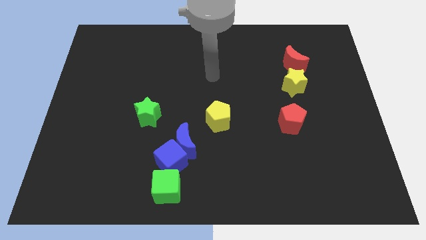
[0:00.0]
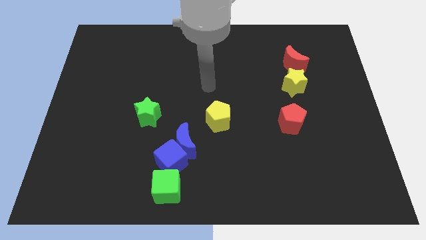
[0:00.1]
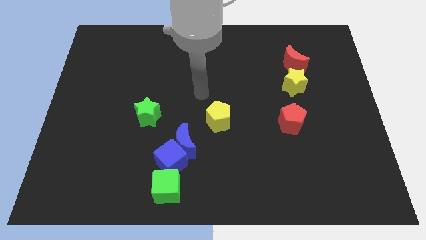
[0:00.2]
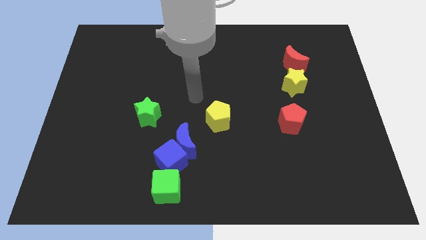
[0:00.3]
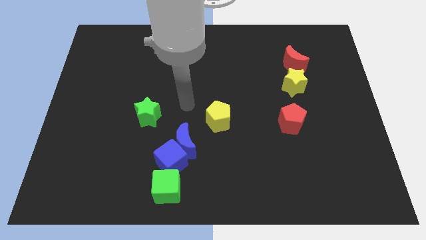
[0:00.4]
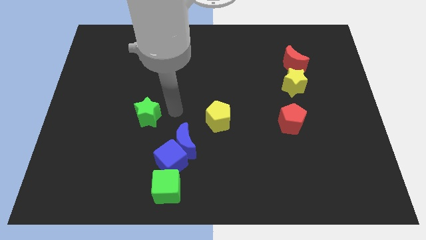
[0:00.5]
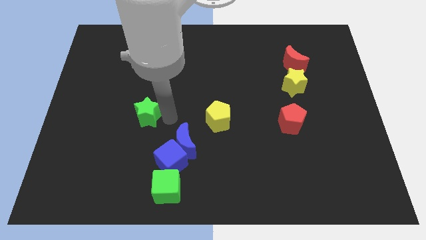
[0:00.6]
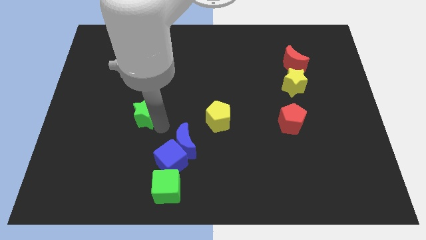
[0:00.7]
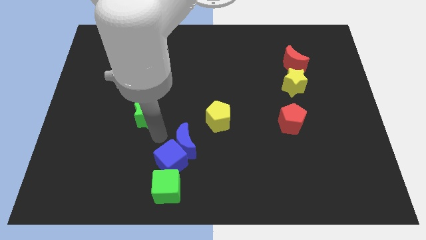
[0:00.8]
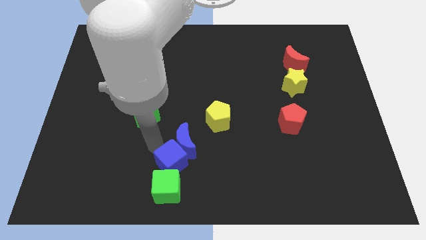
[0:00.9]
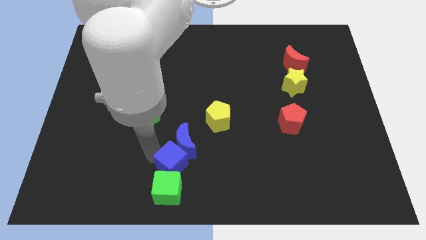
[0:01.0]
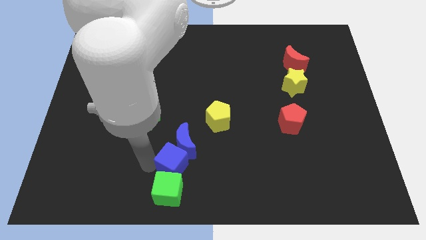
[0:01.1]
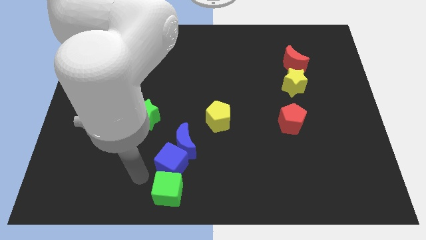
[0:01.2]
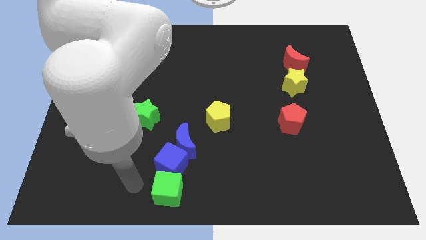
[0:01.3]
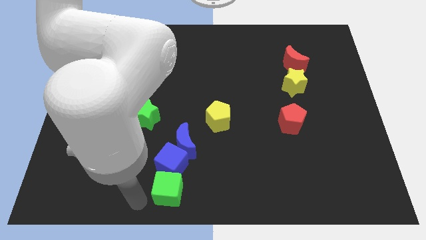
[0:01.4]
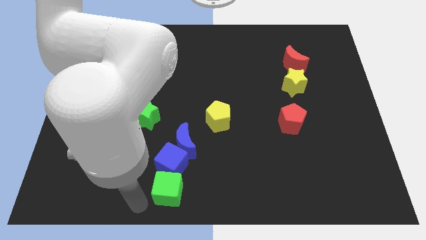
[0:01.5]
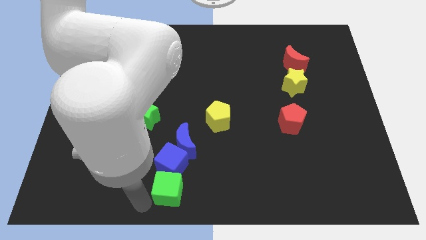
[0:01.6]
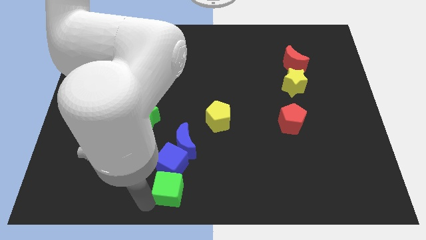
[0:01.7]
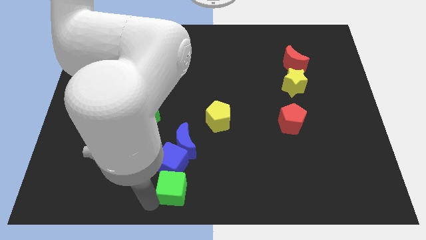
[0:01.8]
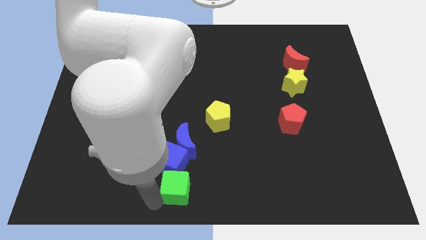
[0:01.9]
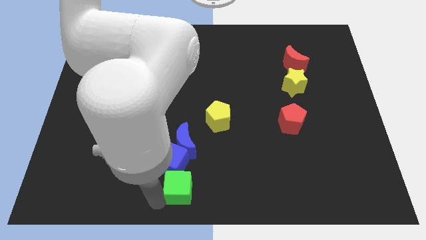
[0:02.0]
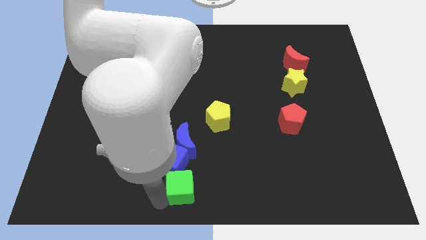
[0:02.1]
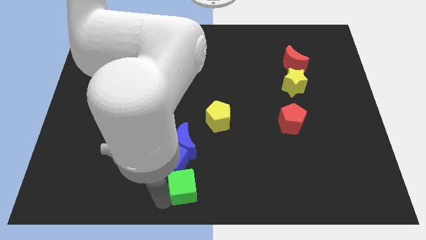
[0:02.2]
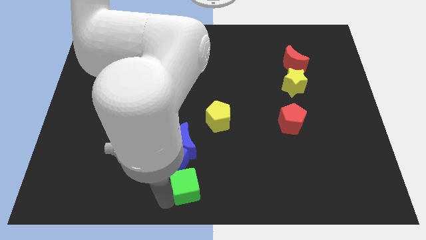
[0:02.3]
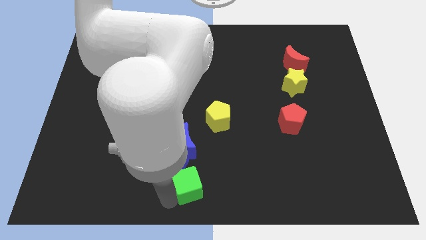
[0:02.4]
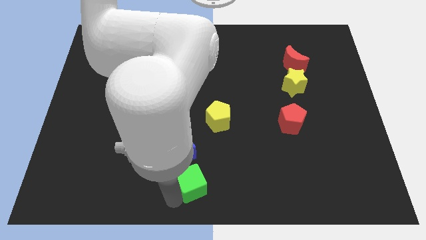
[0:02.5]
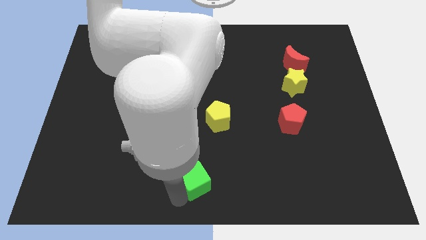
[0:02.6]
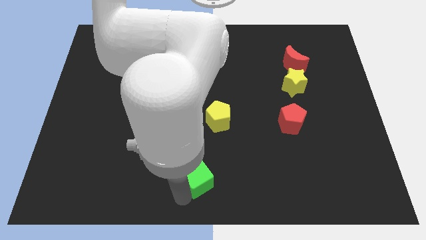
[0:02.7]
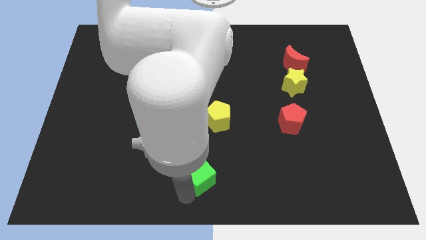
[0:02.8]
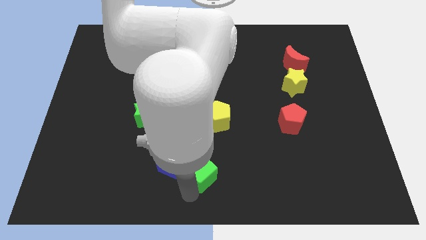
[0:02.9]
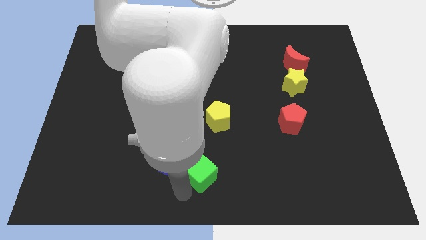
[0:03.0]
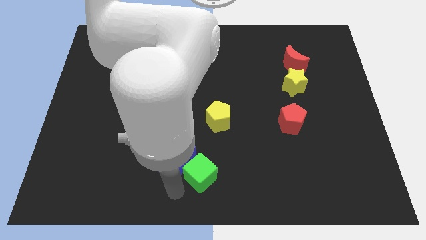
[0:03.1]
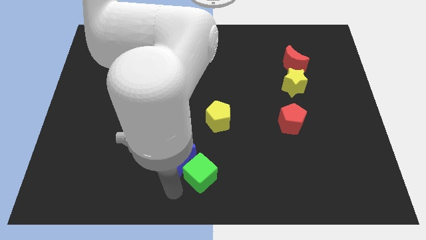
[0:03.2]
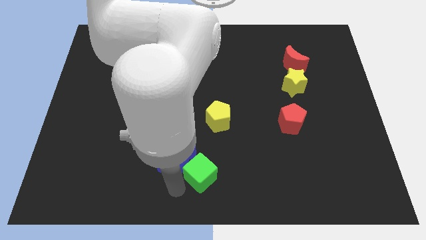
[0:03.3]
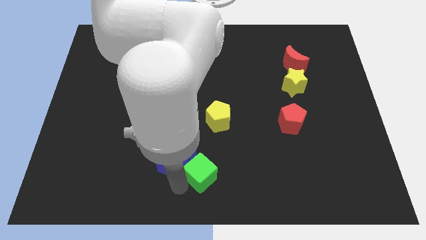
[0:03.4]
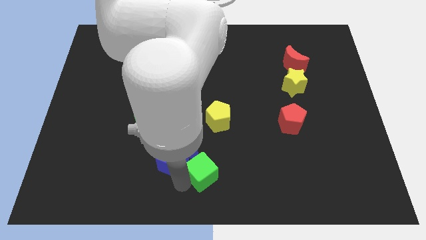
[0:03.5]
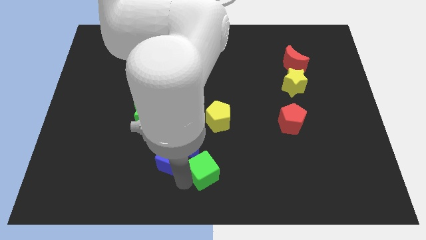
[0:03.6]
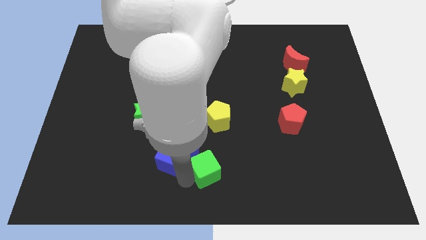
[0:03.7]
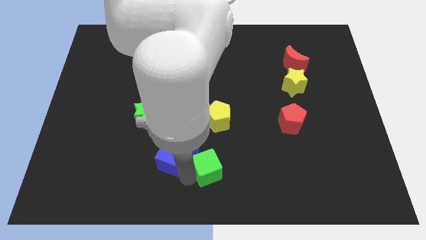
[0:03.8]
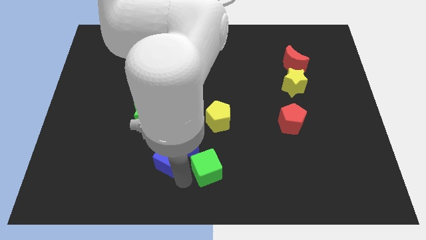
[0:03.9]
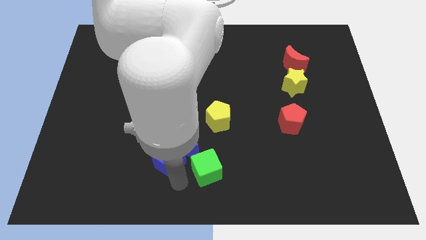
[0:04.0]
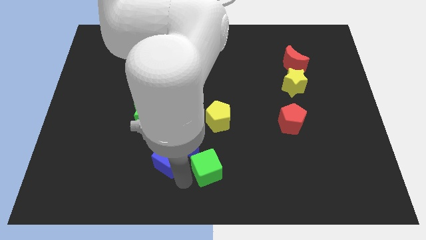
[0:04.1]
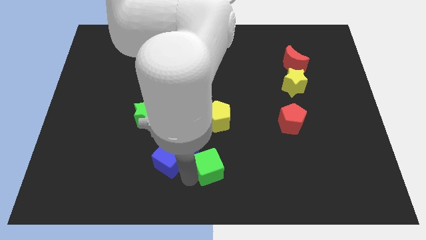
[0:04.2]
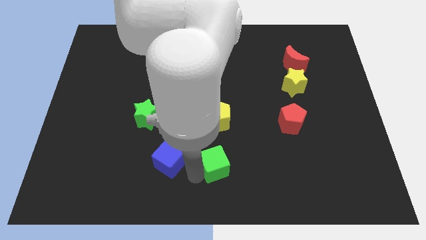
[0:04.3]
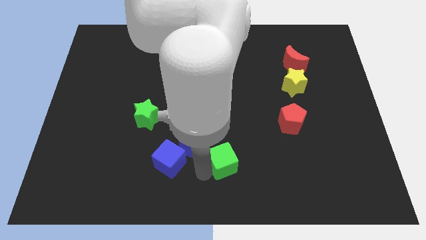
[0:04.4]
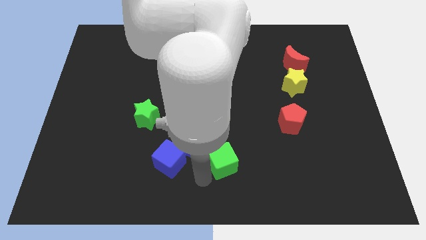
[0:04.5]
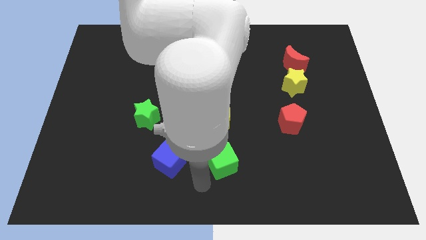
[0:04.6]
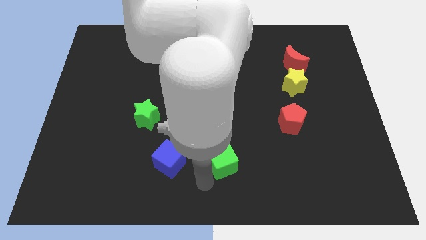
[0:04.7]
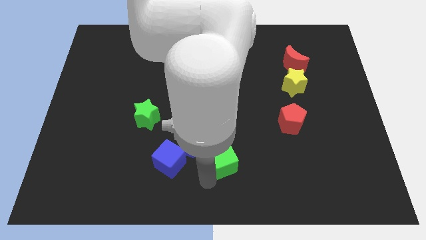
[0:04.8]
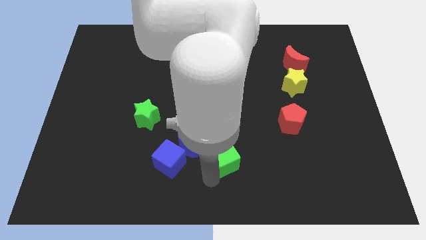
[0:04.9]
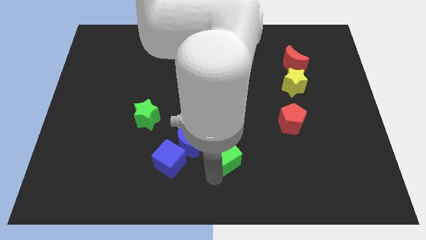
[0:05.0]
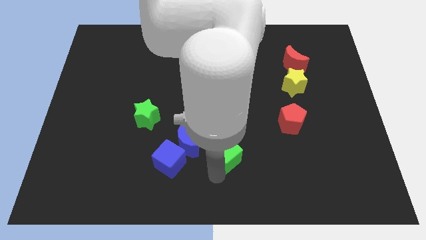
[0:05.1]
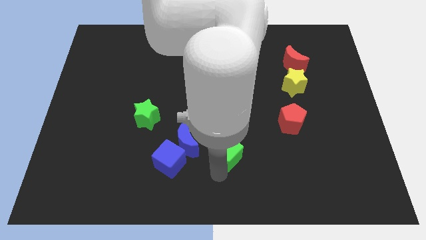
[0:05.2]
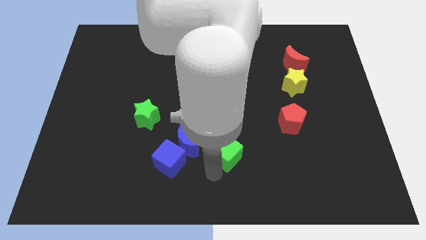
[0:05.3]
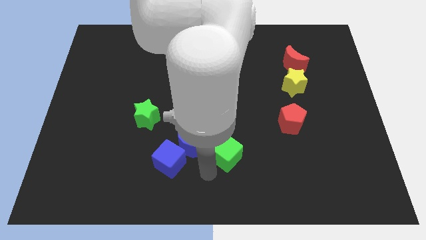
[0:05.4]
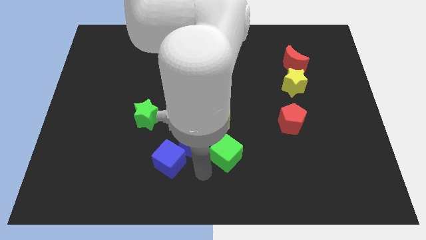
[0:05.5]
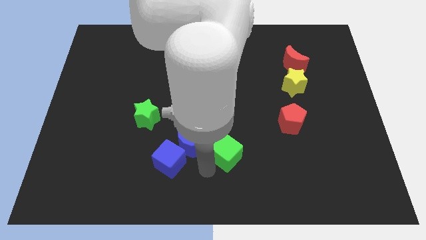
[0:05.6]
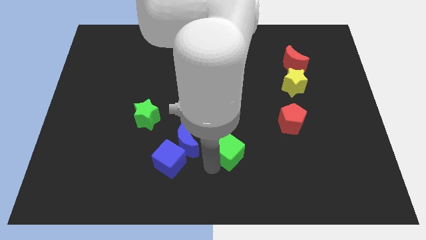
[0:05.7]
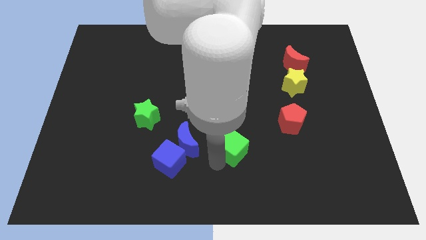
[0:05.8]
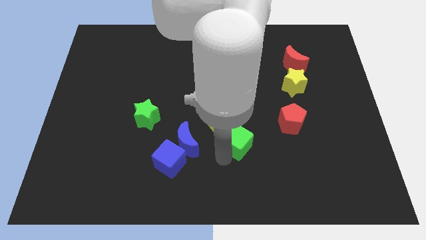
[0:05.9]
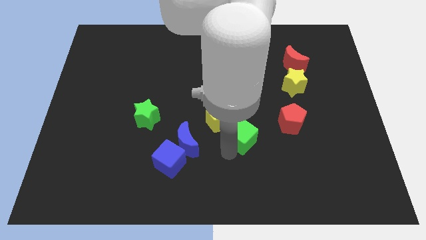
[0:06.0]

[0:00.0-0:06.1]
push the green cube just right of the yellow pentagon

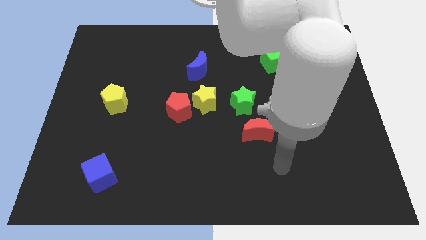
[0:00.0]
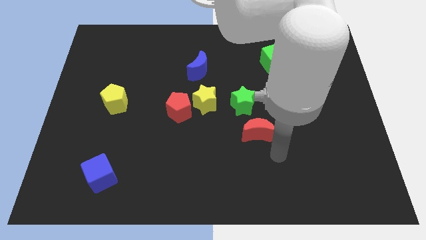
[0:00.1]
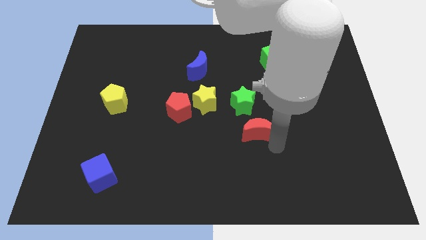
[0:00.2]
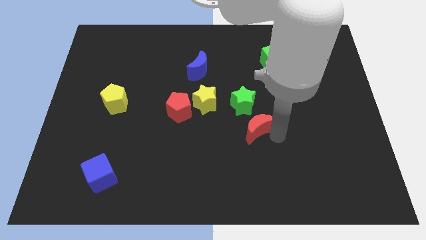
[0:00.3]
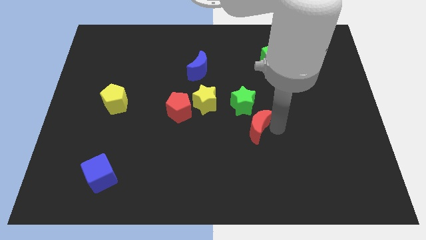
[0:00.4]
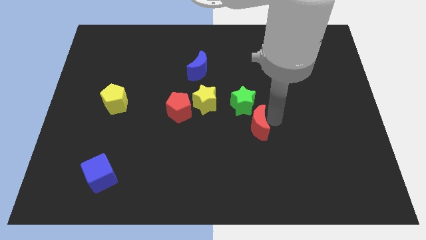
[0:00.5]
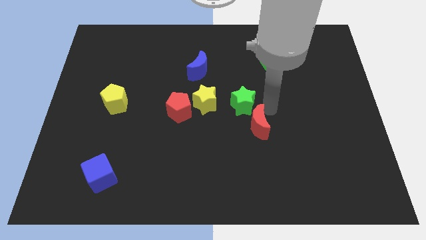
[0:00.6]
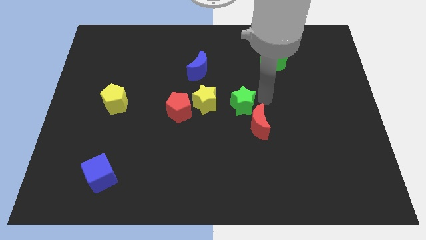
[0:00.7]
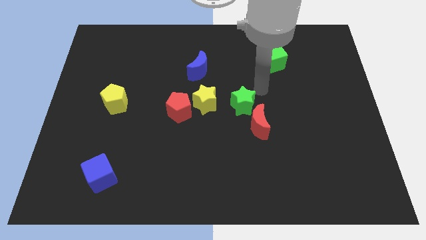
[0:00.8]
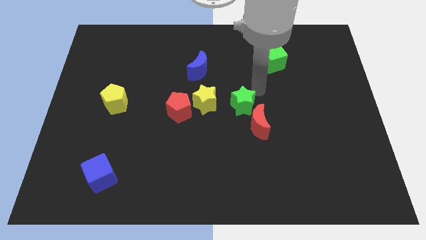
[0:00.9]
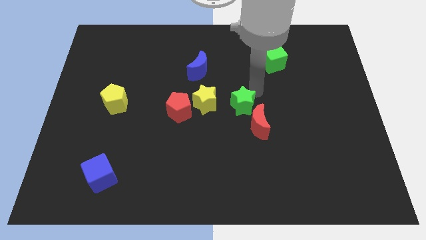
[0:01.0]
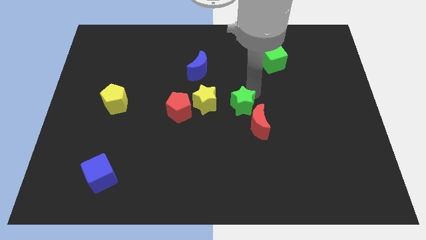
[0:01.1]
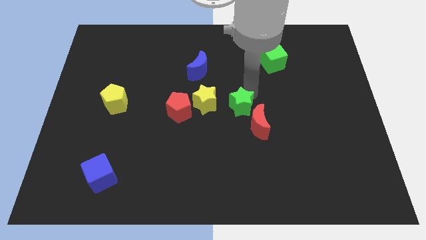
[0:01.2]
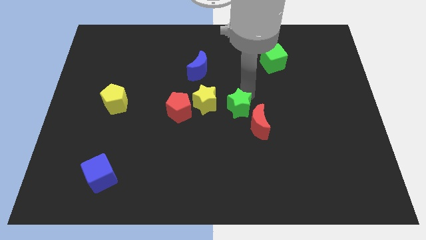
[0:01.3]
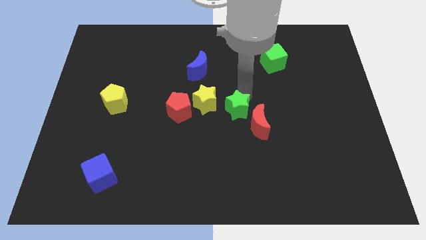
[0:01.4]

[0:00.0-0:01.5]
move the green star to the left side of the red moon

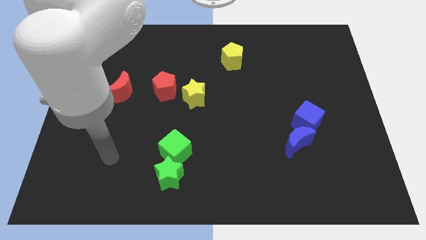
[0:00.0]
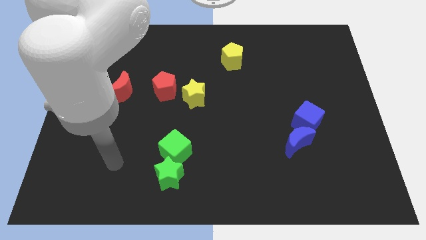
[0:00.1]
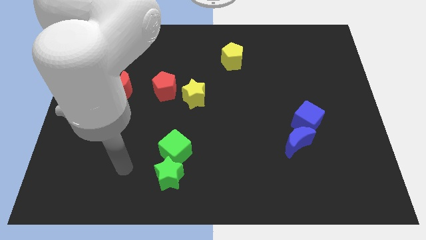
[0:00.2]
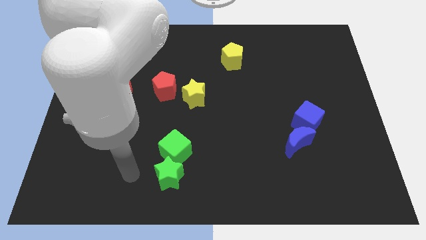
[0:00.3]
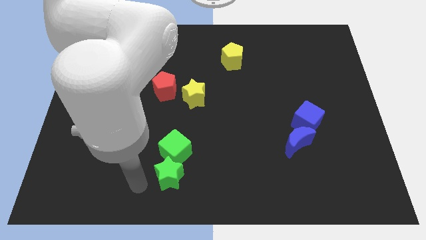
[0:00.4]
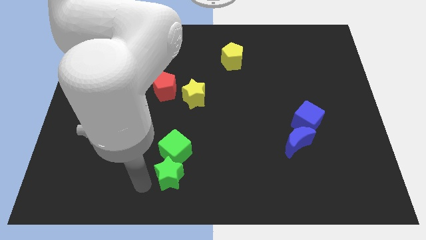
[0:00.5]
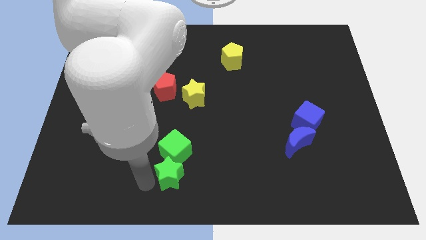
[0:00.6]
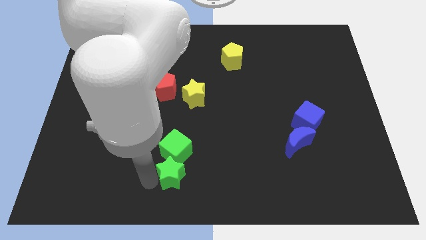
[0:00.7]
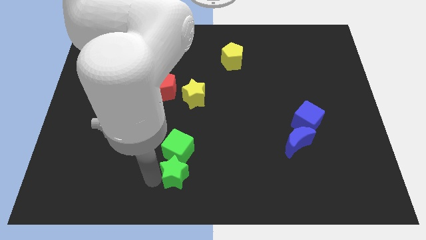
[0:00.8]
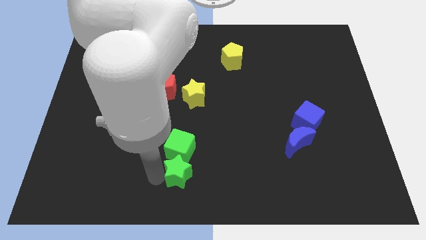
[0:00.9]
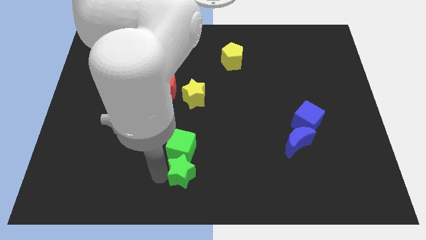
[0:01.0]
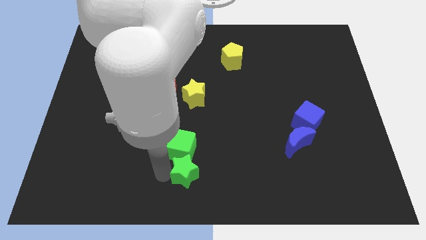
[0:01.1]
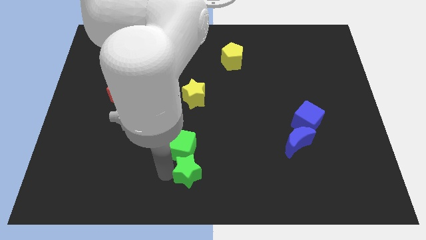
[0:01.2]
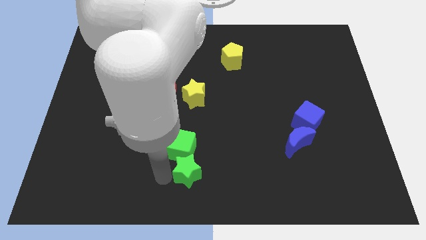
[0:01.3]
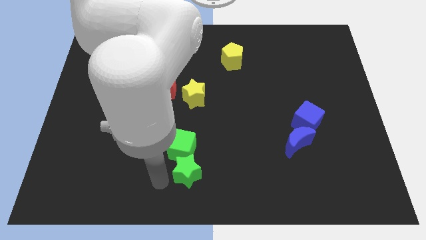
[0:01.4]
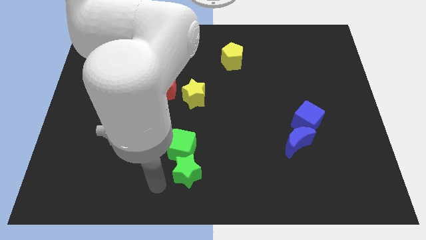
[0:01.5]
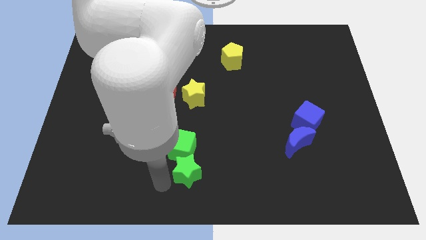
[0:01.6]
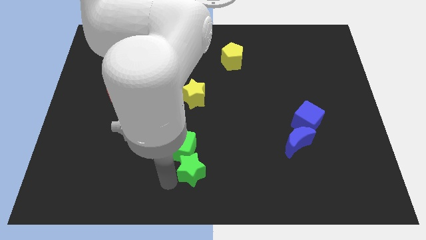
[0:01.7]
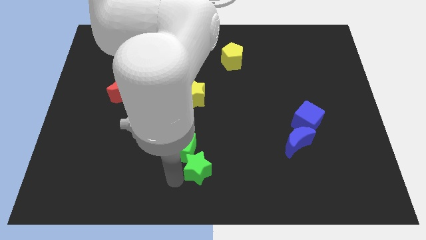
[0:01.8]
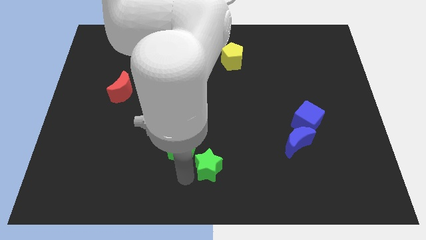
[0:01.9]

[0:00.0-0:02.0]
move the green star to the right side of the green cube
